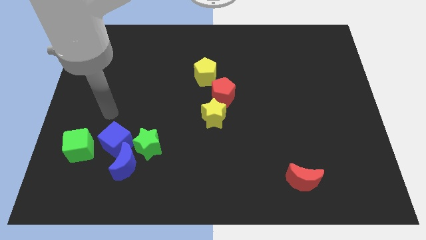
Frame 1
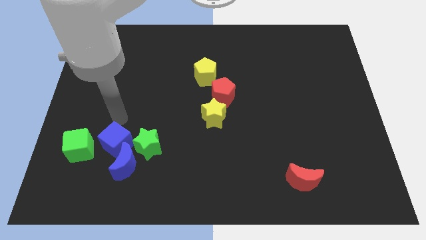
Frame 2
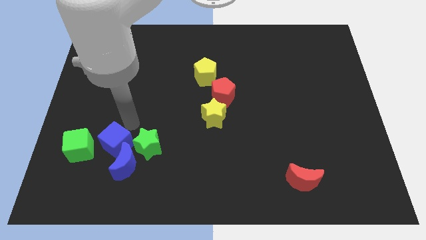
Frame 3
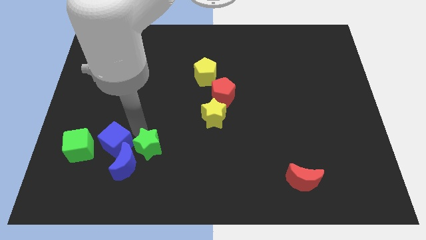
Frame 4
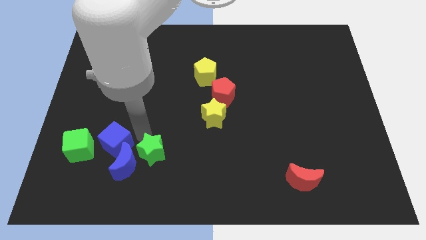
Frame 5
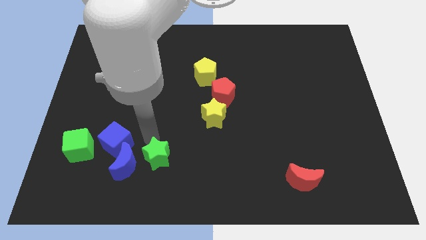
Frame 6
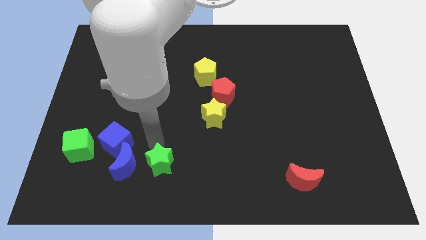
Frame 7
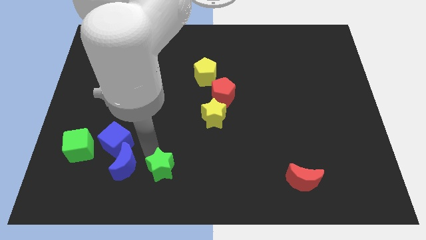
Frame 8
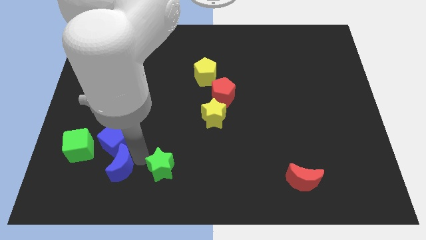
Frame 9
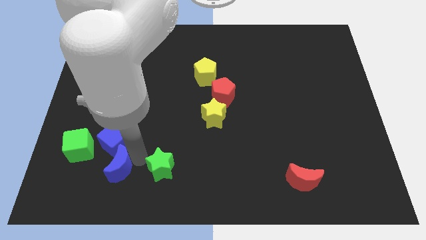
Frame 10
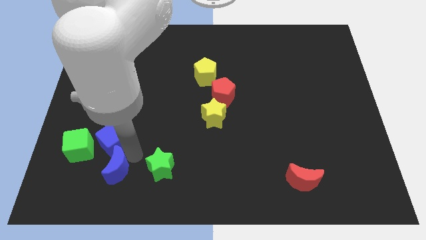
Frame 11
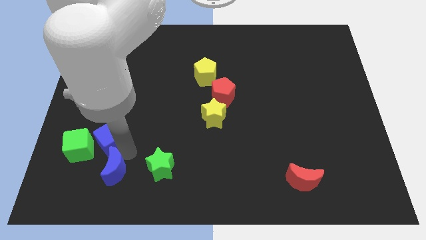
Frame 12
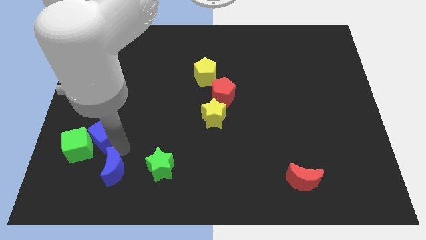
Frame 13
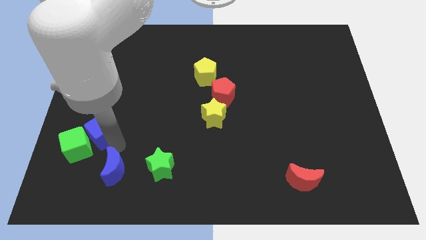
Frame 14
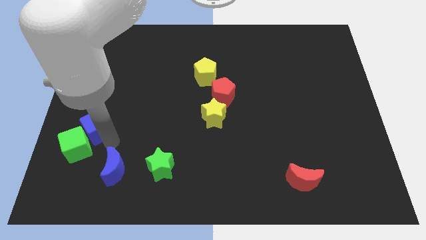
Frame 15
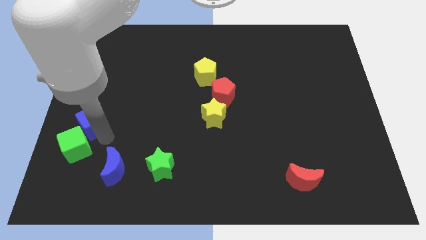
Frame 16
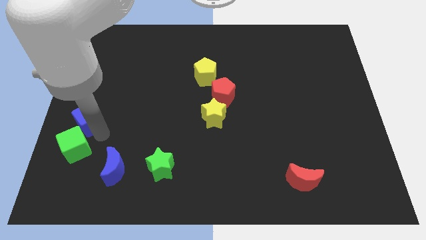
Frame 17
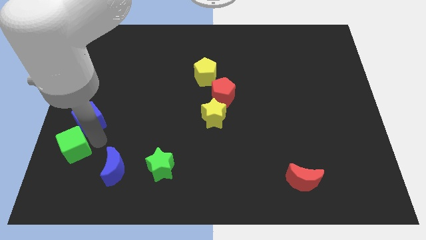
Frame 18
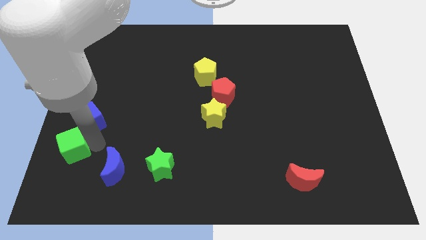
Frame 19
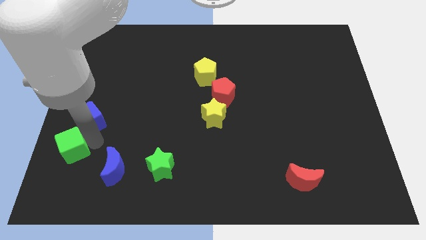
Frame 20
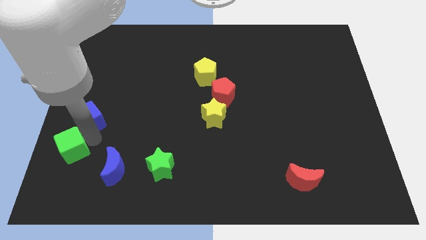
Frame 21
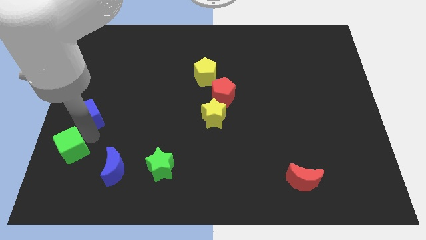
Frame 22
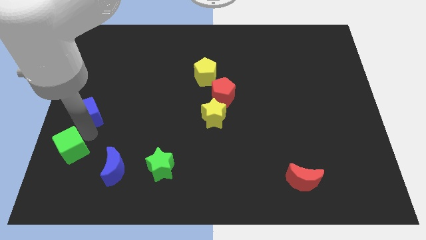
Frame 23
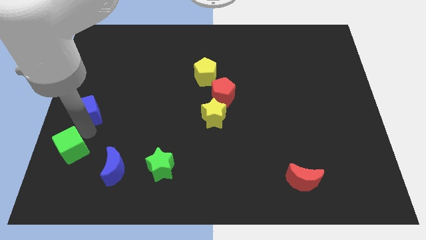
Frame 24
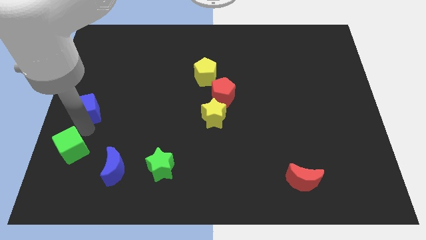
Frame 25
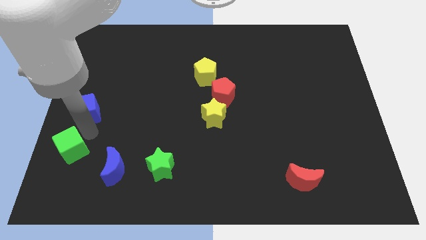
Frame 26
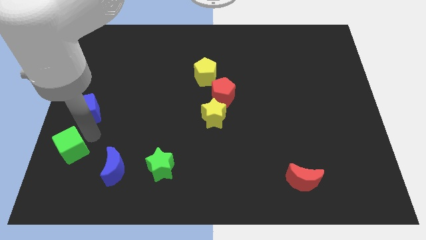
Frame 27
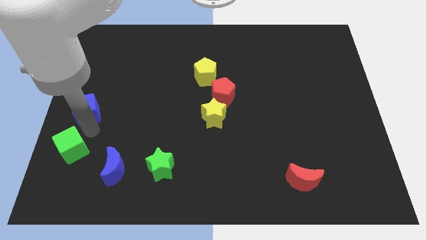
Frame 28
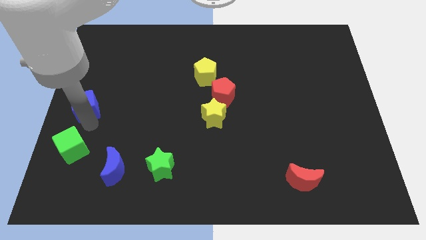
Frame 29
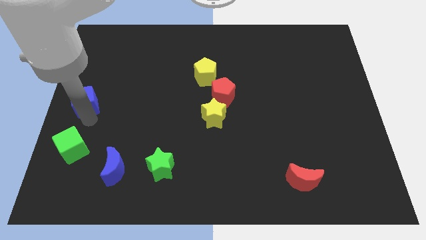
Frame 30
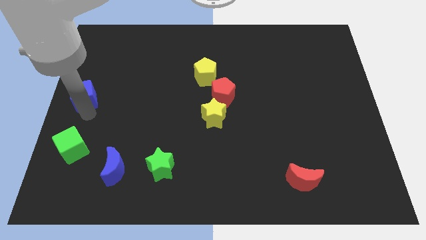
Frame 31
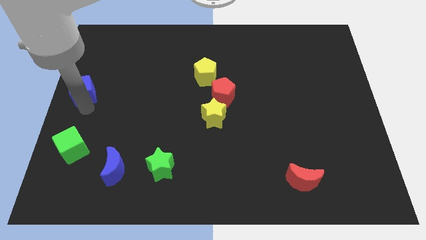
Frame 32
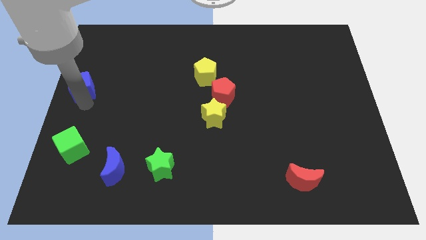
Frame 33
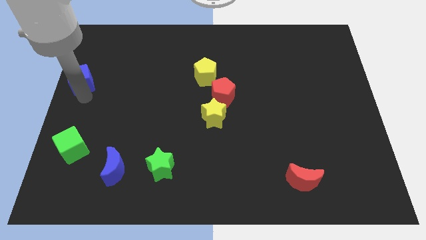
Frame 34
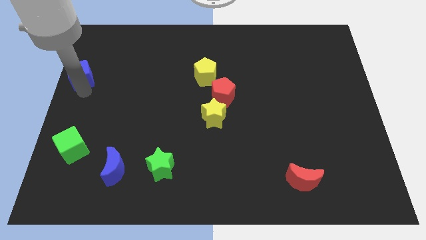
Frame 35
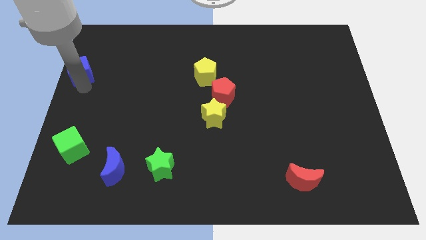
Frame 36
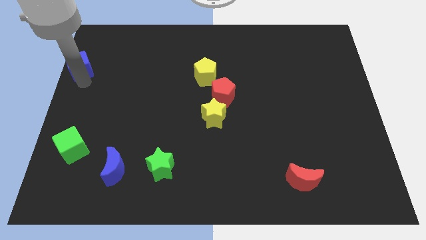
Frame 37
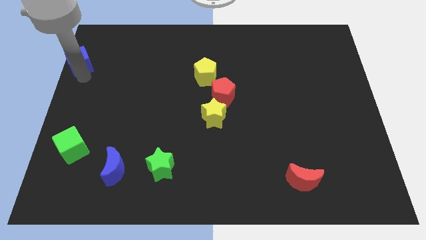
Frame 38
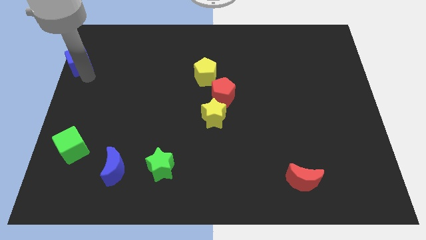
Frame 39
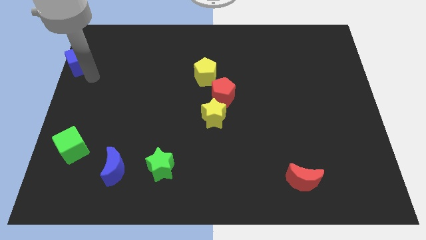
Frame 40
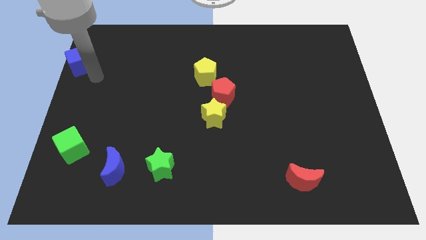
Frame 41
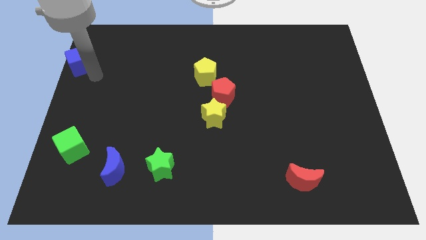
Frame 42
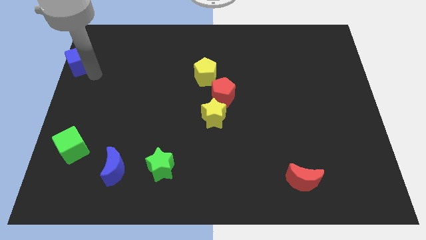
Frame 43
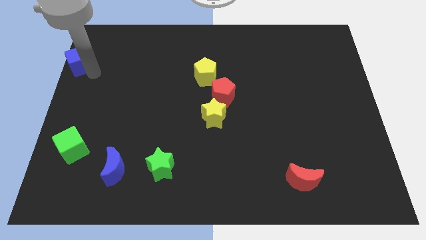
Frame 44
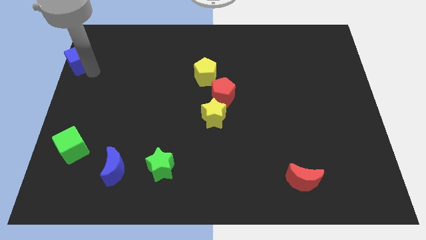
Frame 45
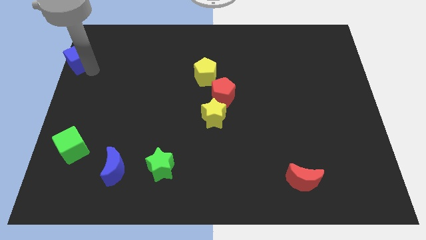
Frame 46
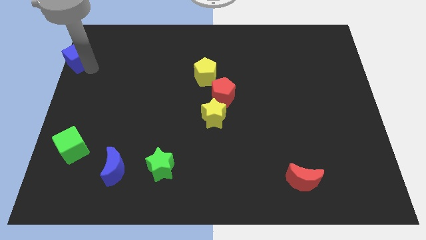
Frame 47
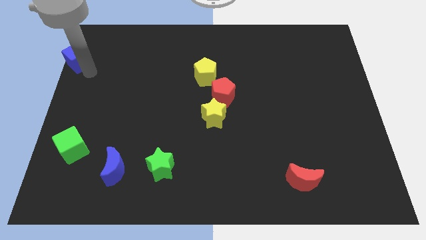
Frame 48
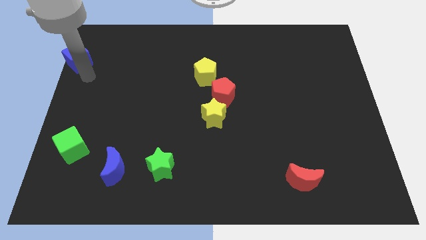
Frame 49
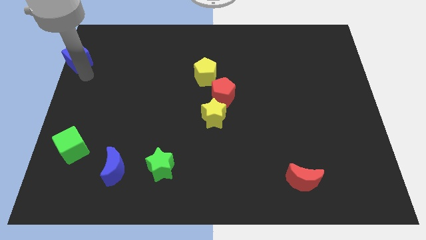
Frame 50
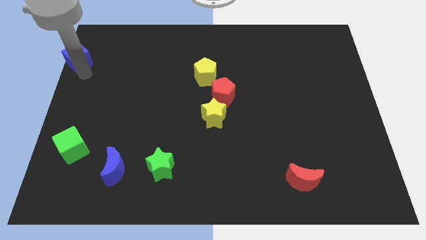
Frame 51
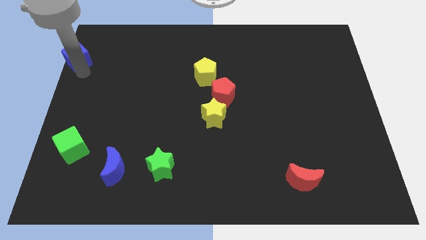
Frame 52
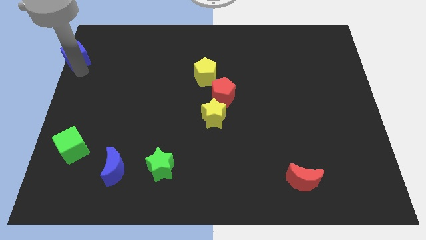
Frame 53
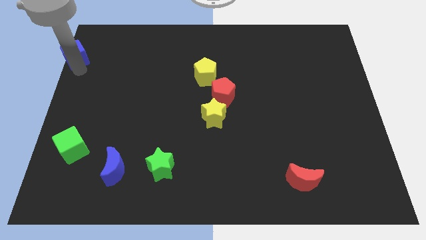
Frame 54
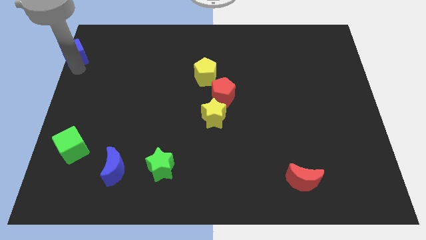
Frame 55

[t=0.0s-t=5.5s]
put the blue cube to the upper left corner

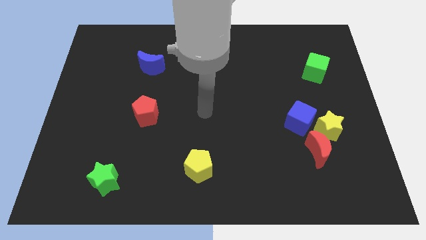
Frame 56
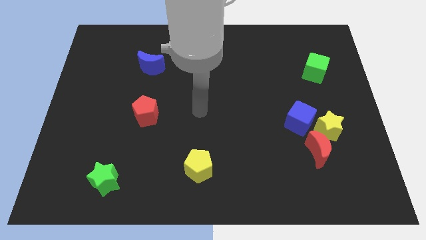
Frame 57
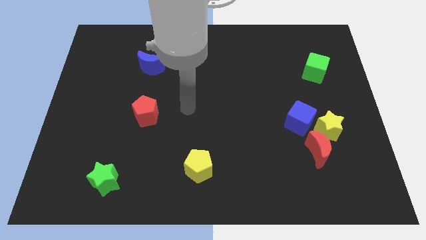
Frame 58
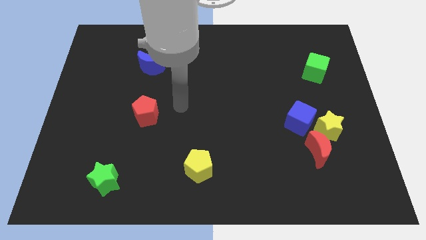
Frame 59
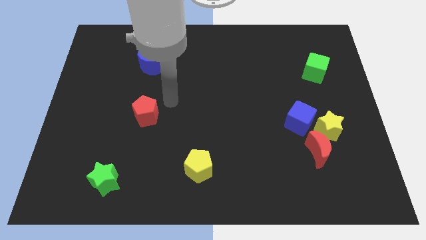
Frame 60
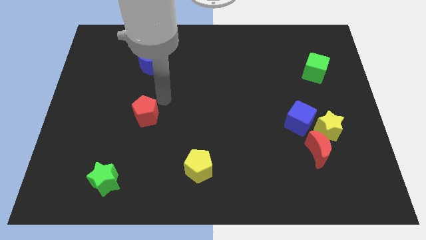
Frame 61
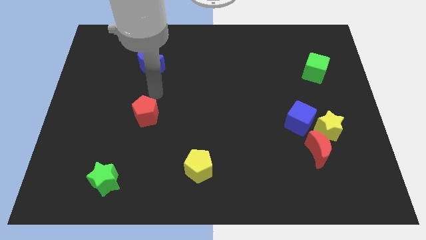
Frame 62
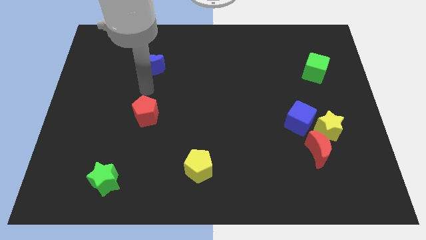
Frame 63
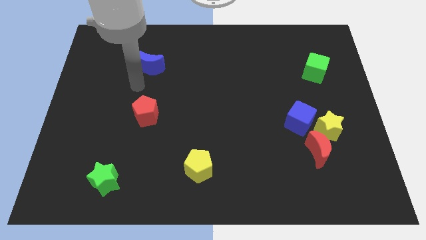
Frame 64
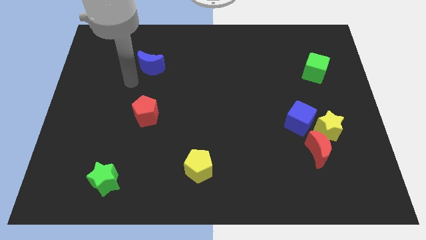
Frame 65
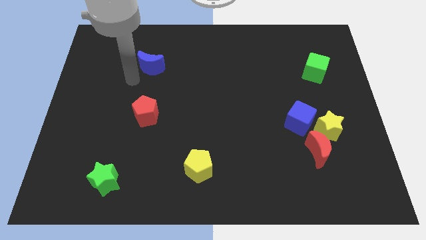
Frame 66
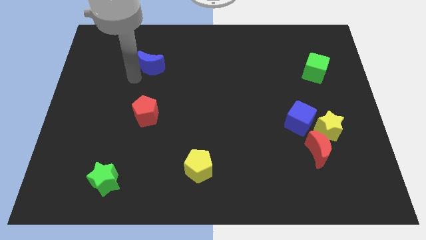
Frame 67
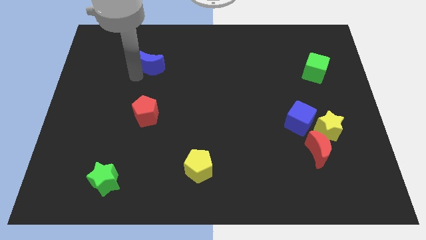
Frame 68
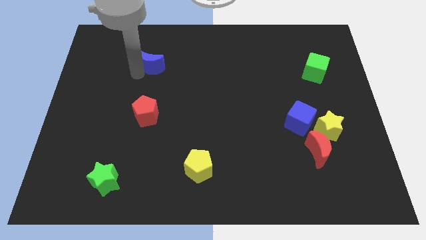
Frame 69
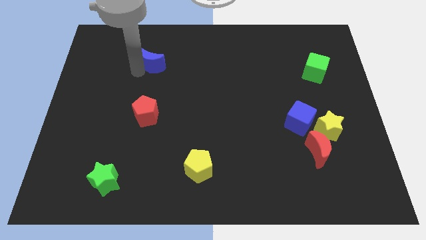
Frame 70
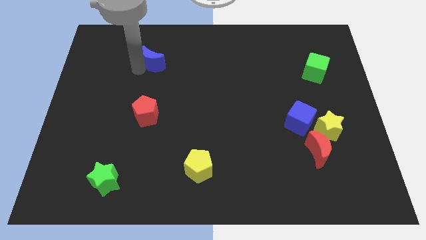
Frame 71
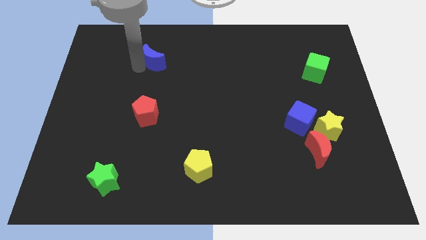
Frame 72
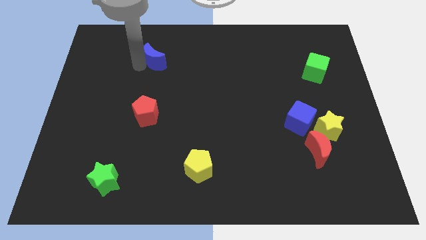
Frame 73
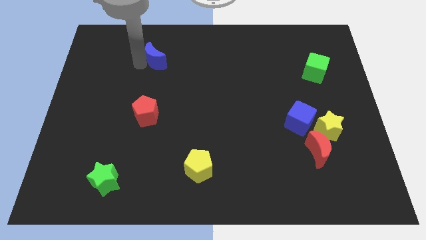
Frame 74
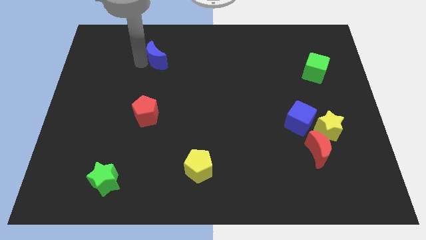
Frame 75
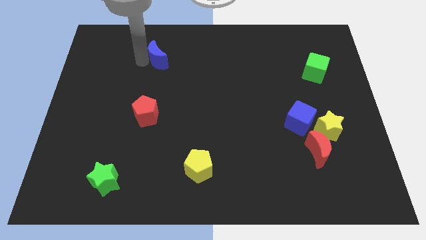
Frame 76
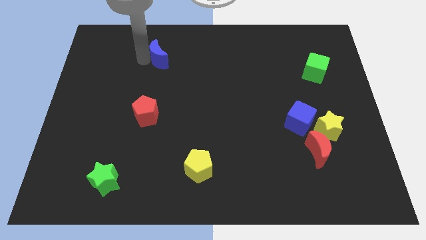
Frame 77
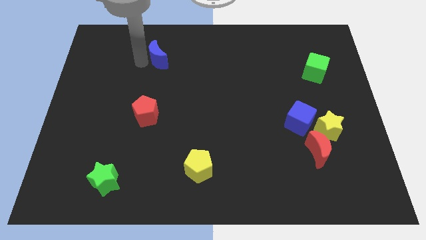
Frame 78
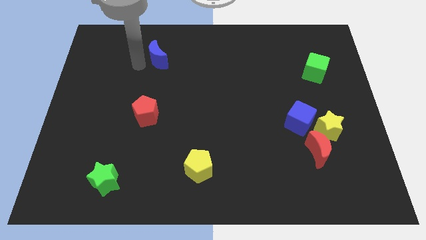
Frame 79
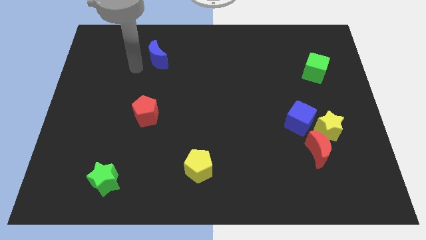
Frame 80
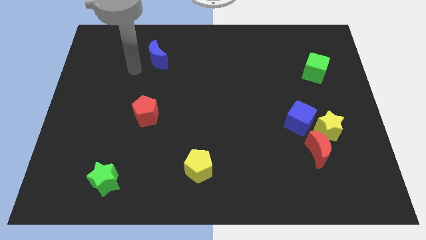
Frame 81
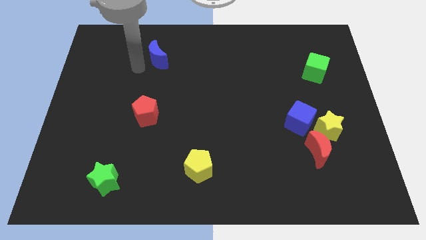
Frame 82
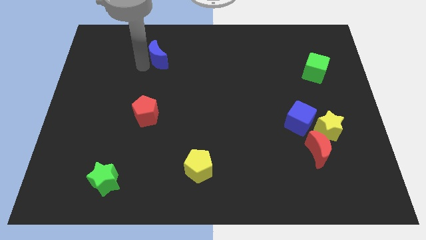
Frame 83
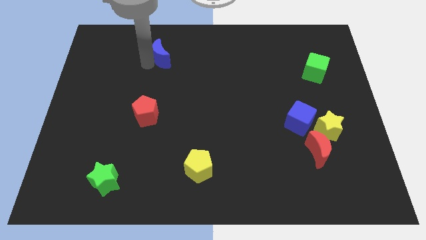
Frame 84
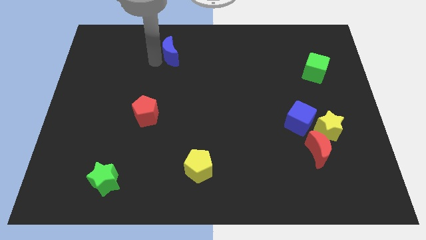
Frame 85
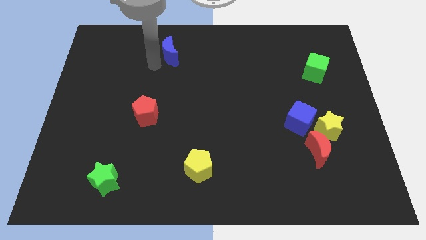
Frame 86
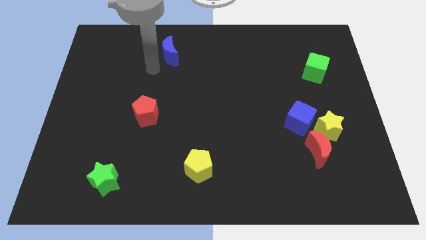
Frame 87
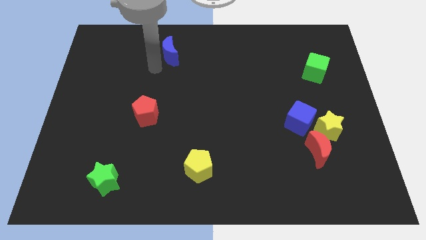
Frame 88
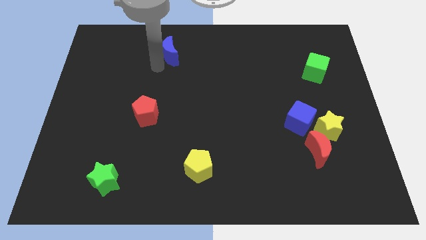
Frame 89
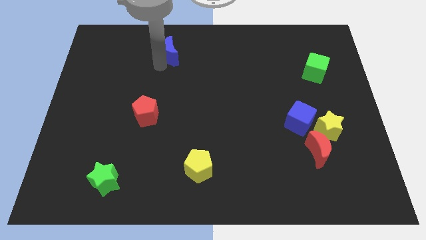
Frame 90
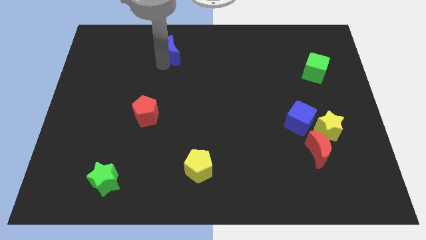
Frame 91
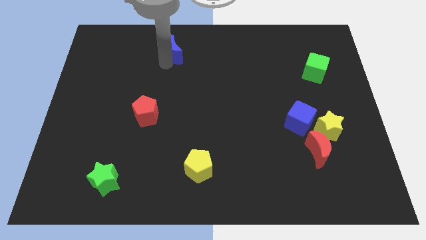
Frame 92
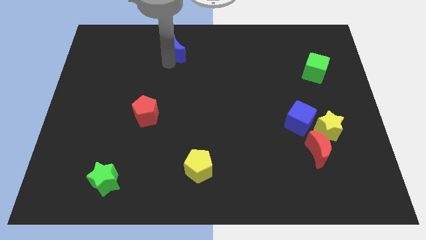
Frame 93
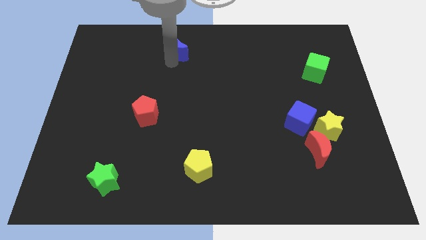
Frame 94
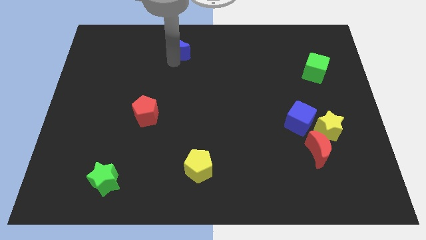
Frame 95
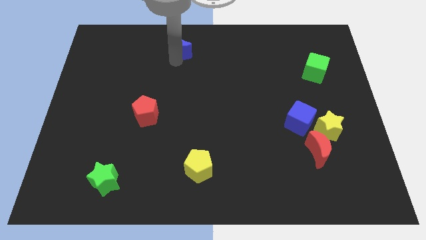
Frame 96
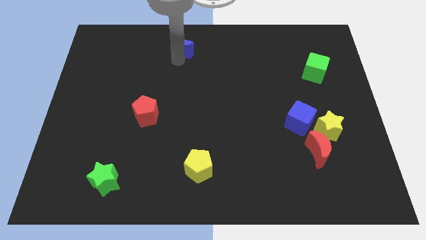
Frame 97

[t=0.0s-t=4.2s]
move the blue moon to the top
